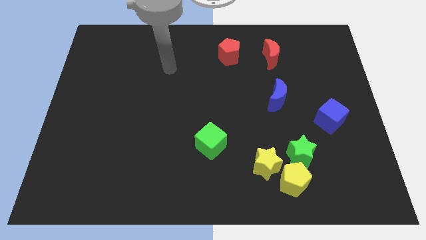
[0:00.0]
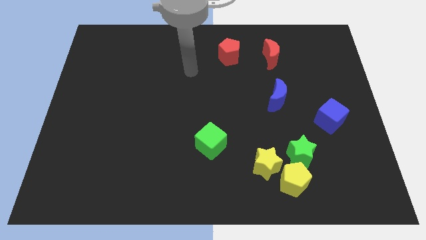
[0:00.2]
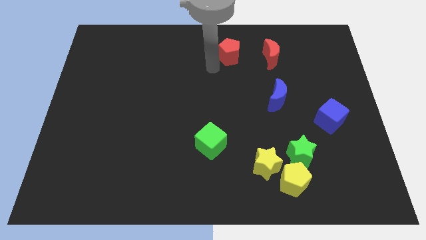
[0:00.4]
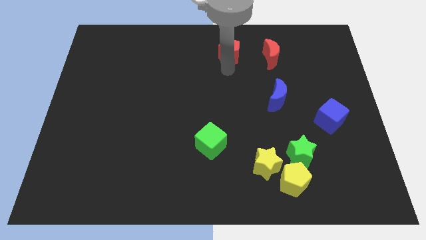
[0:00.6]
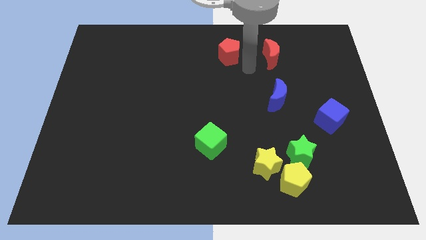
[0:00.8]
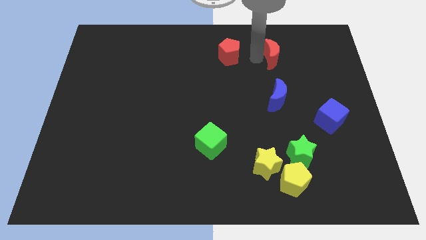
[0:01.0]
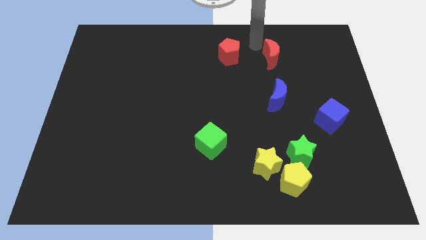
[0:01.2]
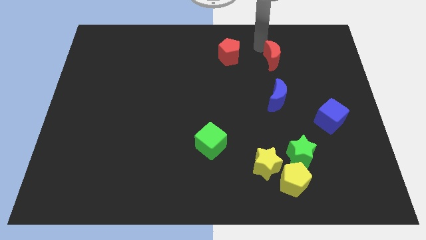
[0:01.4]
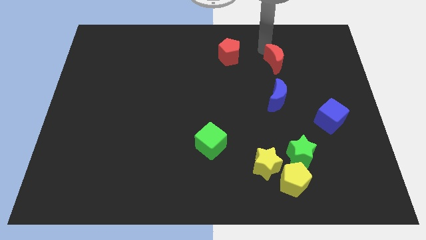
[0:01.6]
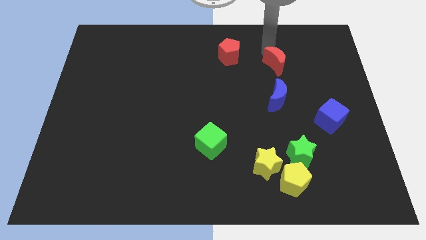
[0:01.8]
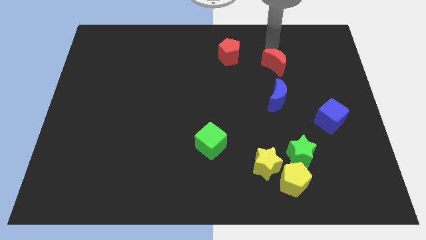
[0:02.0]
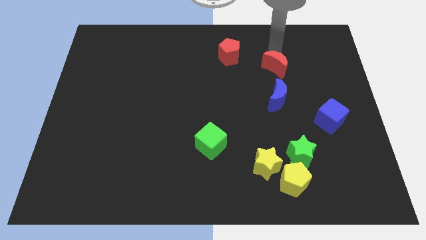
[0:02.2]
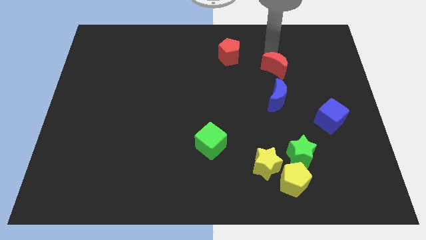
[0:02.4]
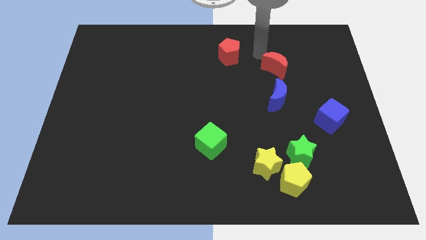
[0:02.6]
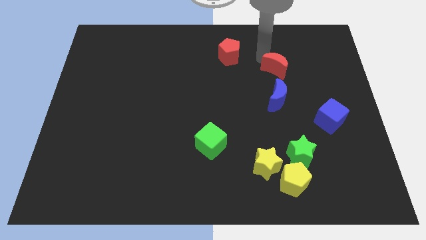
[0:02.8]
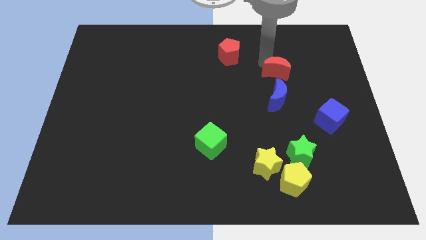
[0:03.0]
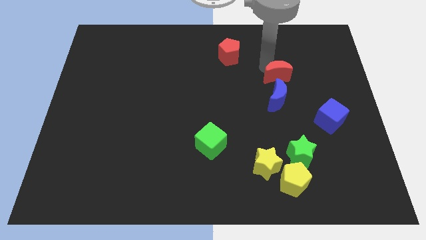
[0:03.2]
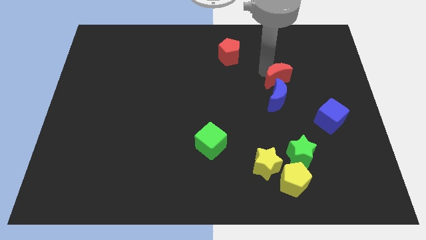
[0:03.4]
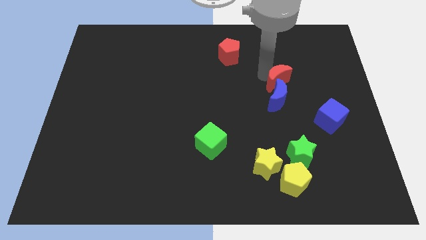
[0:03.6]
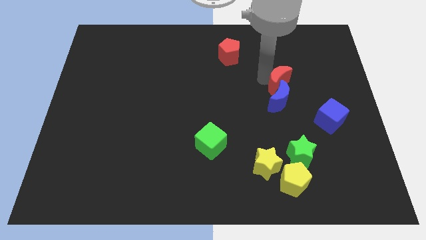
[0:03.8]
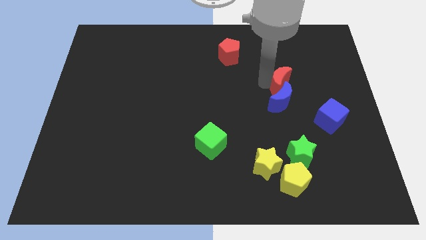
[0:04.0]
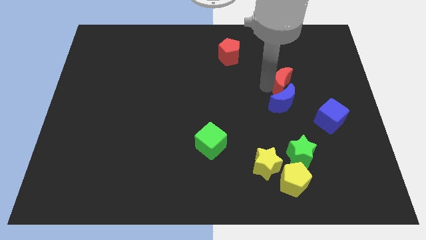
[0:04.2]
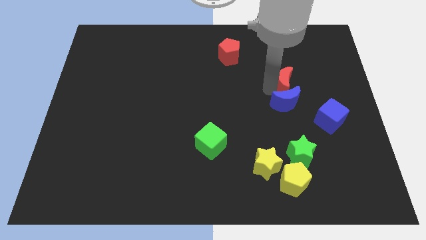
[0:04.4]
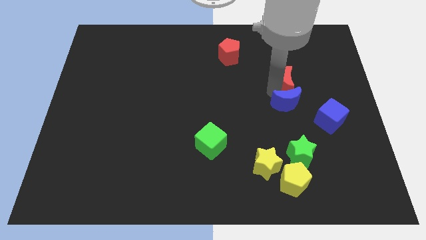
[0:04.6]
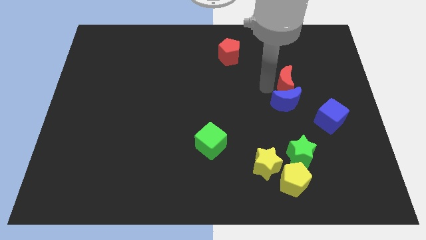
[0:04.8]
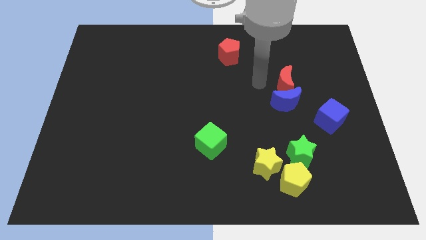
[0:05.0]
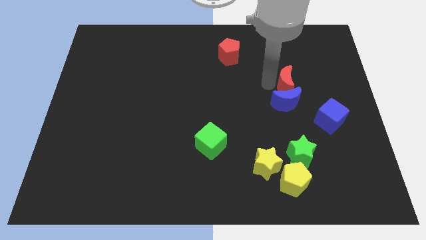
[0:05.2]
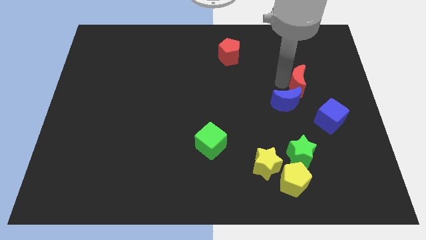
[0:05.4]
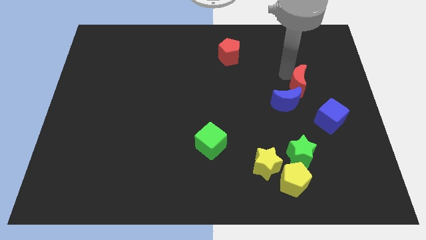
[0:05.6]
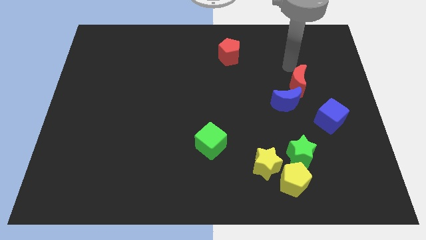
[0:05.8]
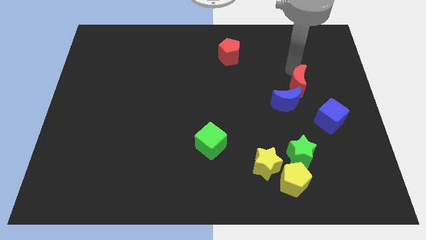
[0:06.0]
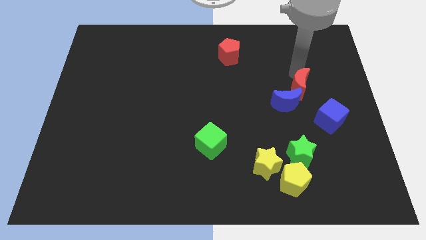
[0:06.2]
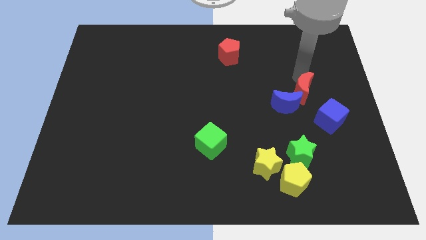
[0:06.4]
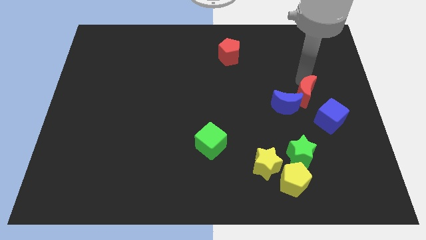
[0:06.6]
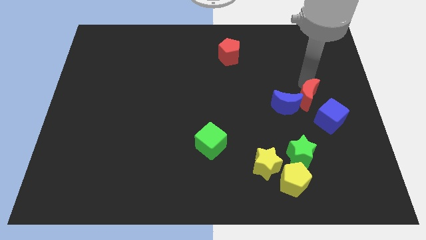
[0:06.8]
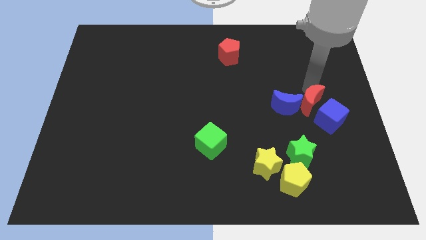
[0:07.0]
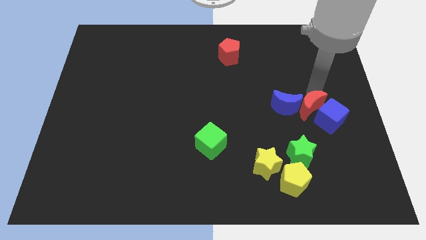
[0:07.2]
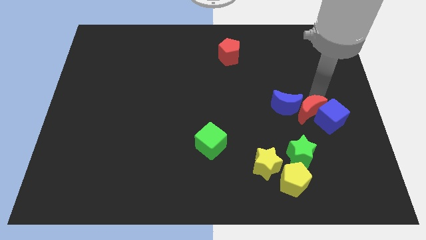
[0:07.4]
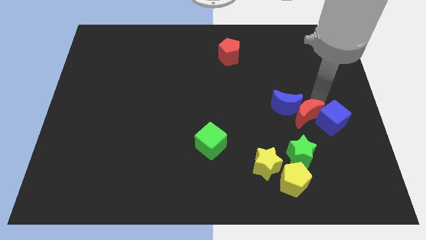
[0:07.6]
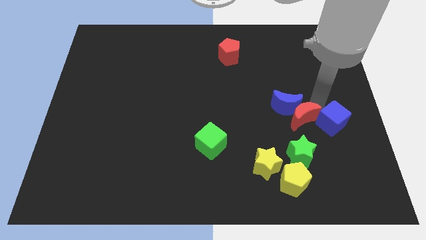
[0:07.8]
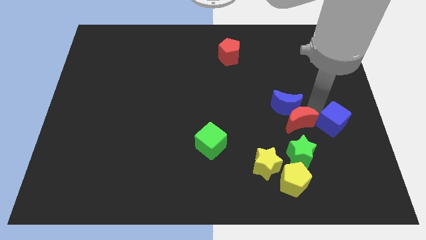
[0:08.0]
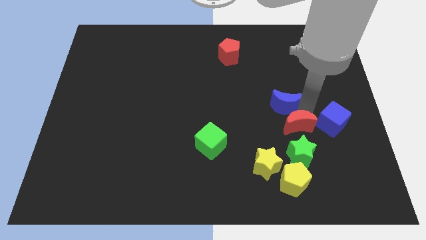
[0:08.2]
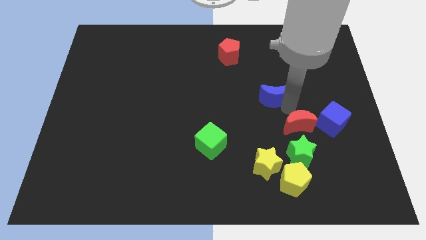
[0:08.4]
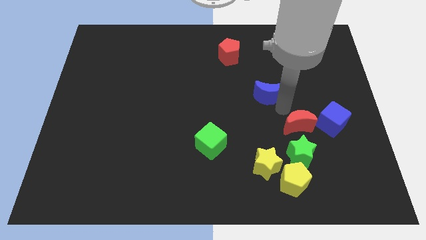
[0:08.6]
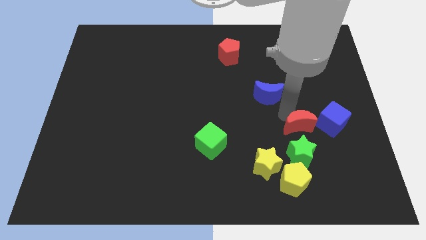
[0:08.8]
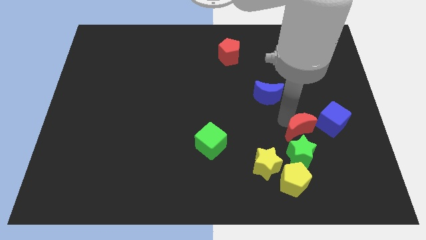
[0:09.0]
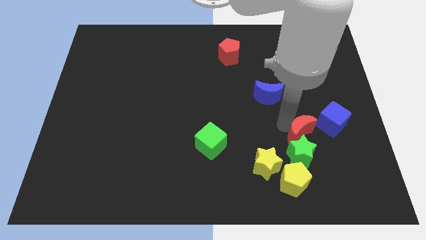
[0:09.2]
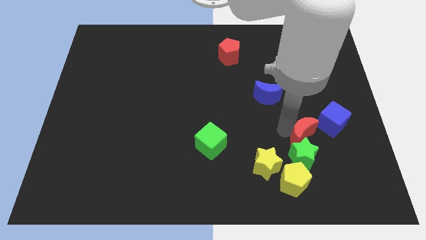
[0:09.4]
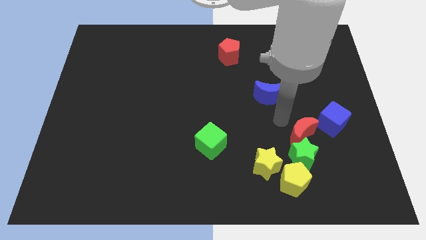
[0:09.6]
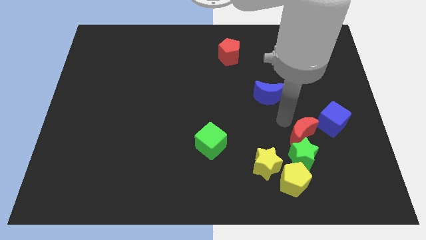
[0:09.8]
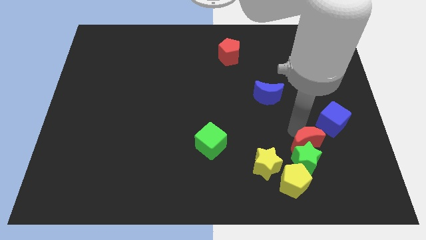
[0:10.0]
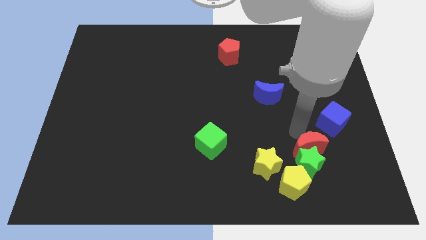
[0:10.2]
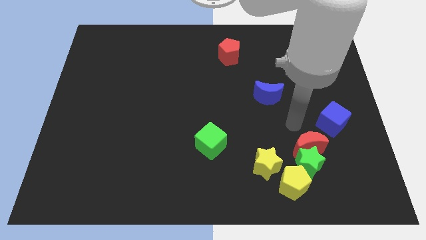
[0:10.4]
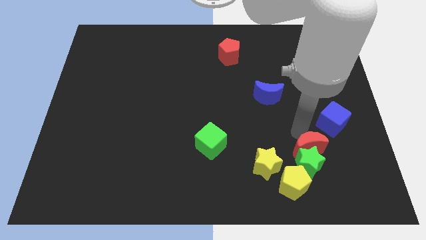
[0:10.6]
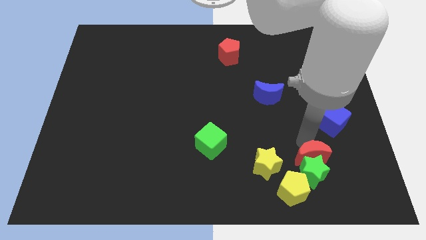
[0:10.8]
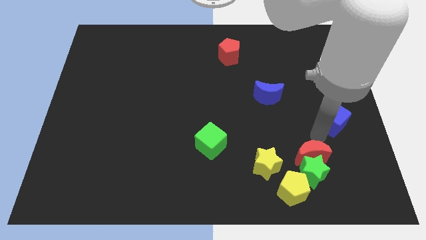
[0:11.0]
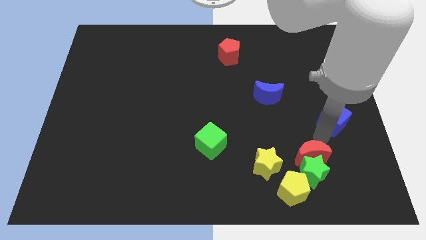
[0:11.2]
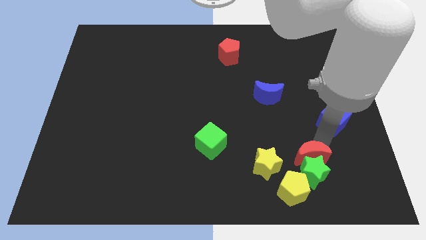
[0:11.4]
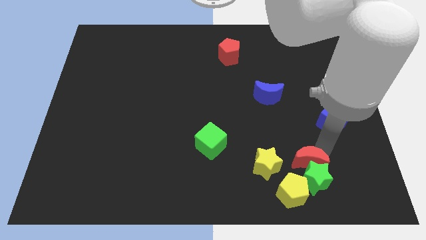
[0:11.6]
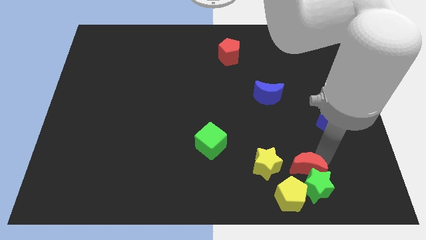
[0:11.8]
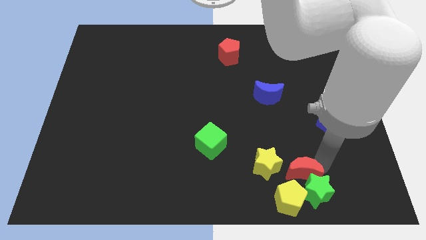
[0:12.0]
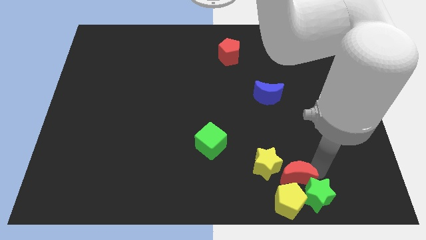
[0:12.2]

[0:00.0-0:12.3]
slide the red moon towards the yellow pentagon

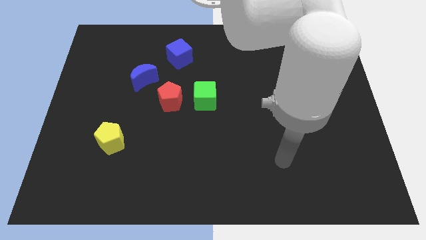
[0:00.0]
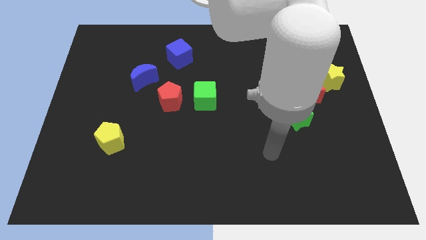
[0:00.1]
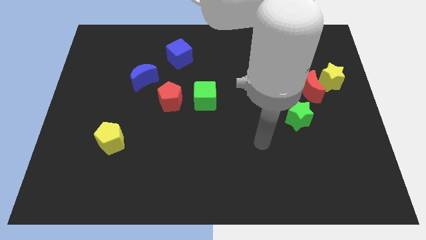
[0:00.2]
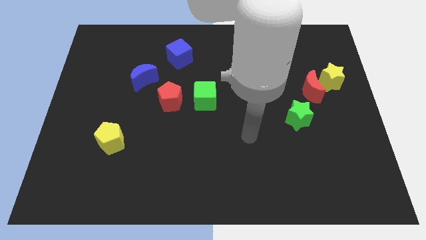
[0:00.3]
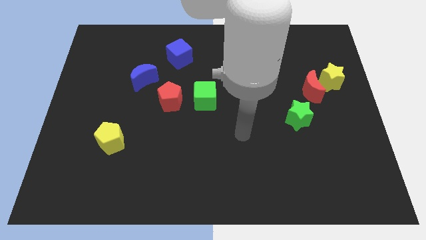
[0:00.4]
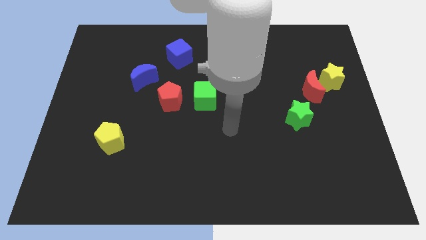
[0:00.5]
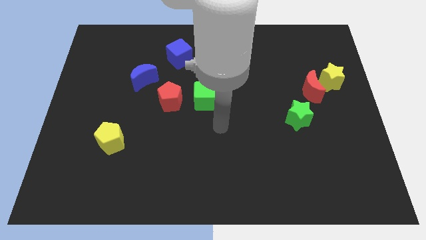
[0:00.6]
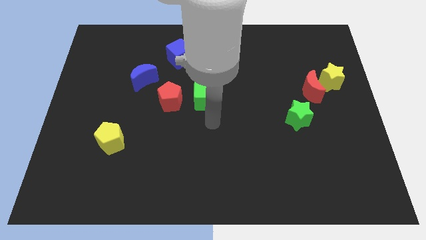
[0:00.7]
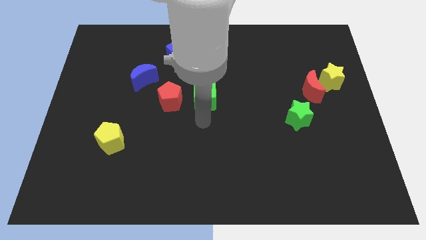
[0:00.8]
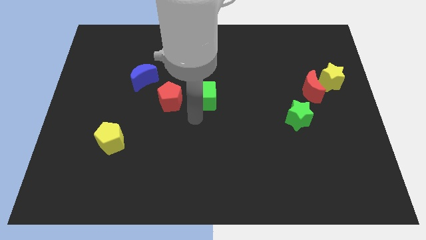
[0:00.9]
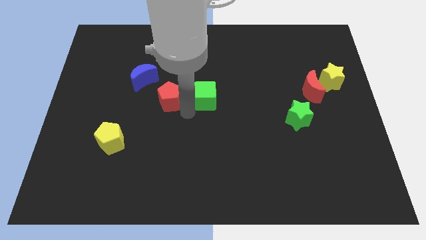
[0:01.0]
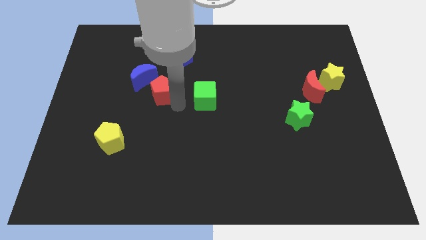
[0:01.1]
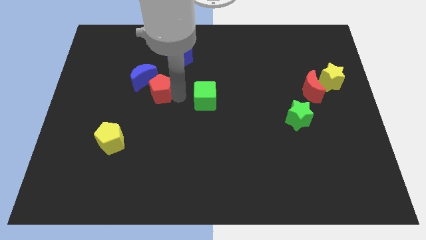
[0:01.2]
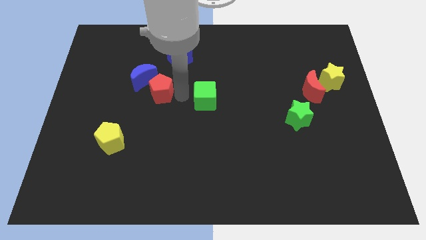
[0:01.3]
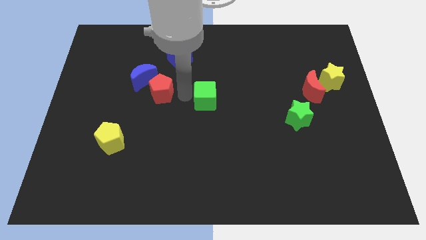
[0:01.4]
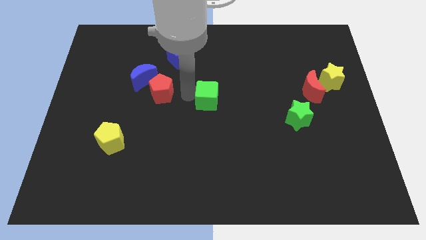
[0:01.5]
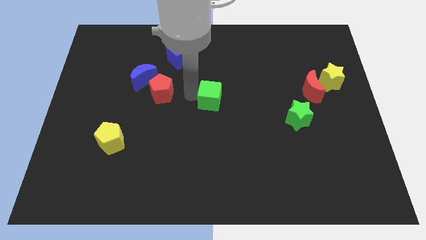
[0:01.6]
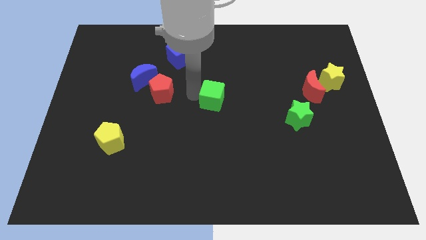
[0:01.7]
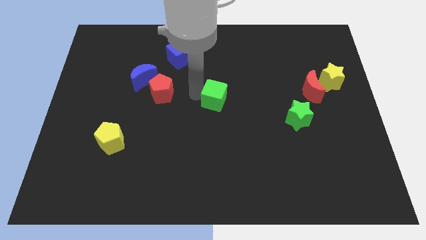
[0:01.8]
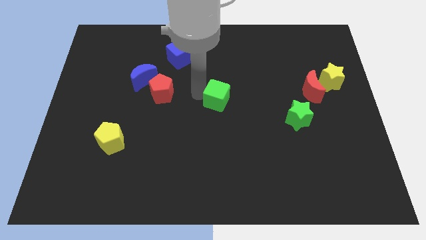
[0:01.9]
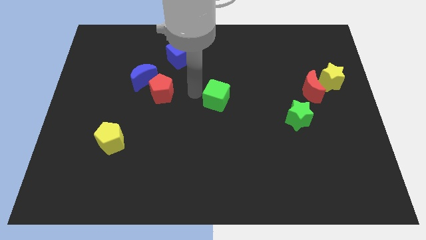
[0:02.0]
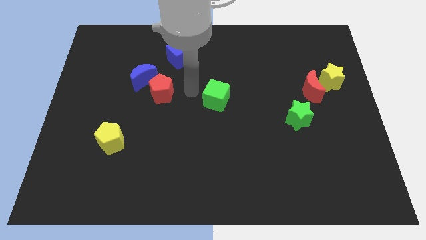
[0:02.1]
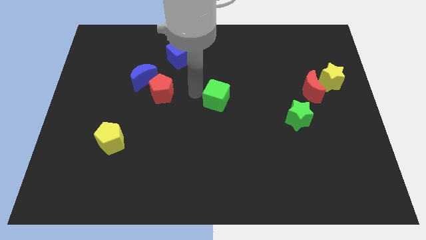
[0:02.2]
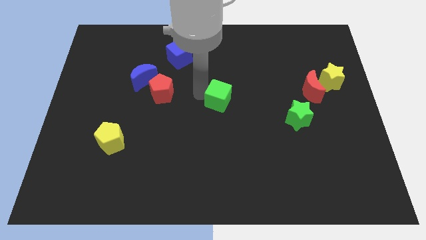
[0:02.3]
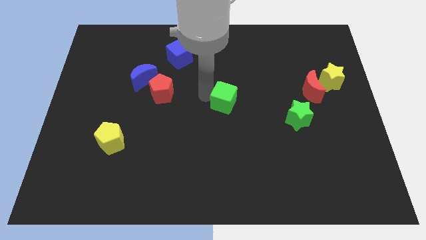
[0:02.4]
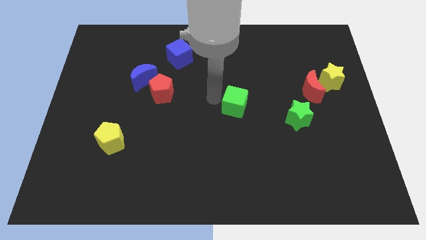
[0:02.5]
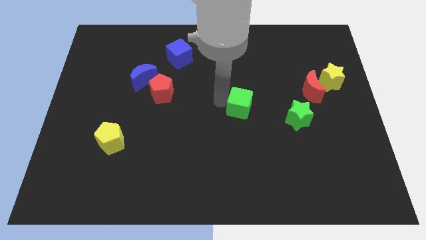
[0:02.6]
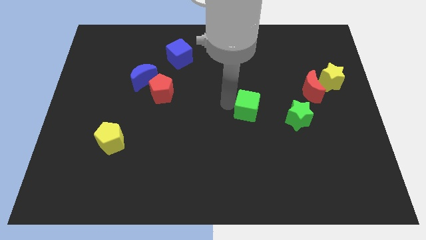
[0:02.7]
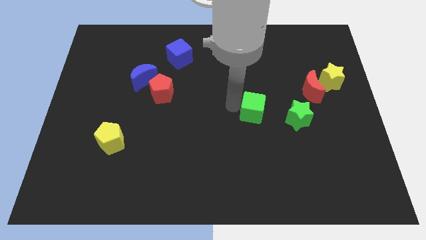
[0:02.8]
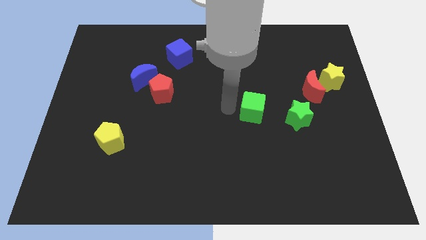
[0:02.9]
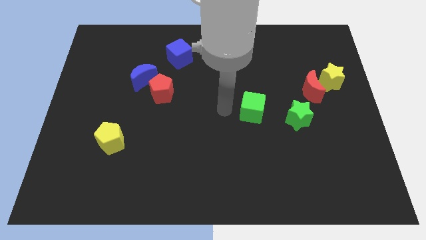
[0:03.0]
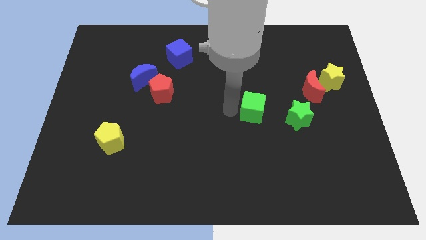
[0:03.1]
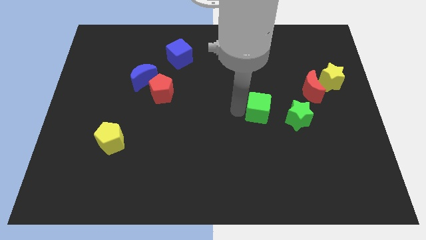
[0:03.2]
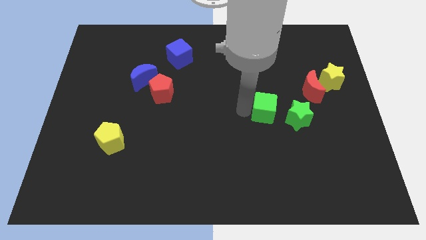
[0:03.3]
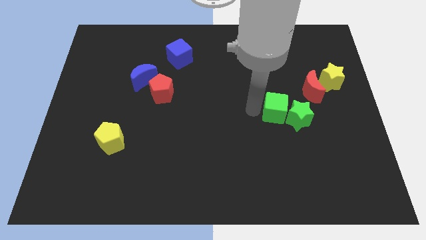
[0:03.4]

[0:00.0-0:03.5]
slide the green cube towards the green star
